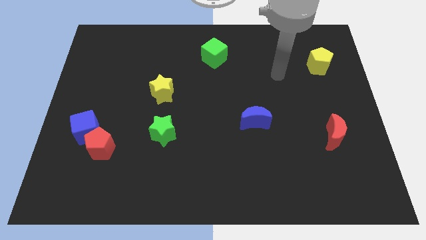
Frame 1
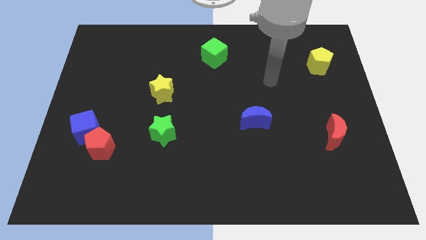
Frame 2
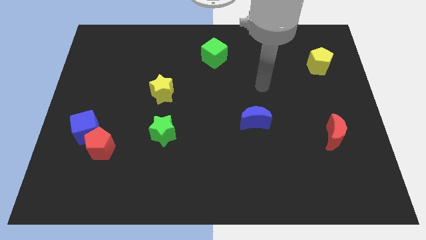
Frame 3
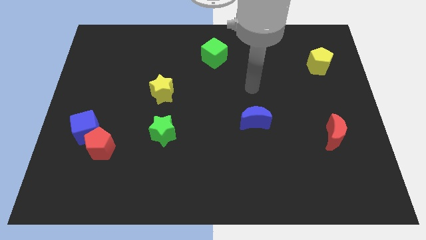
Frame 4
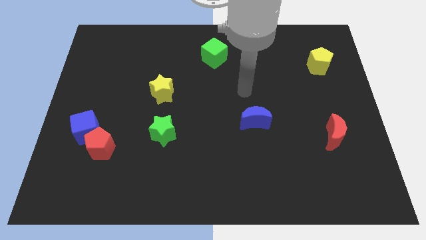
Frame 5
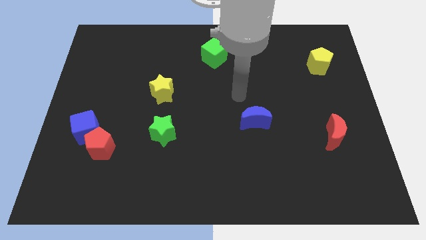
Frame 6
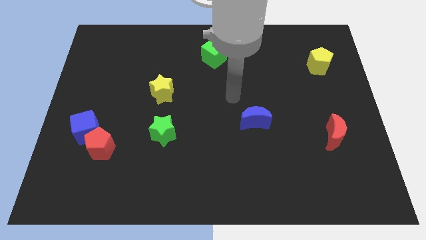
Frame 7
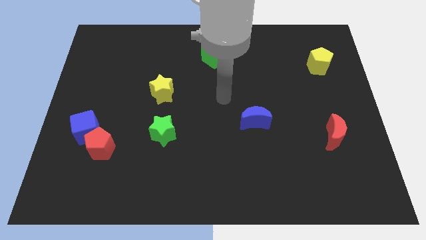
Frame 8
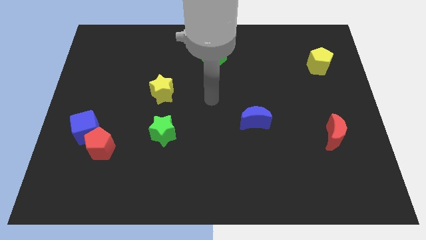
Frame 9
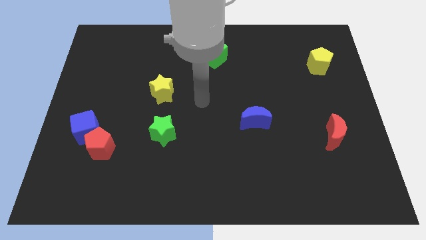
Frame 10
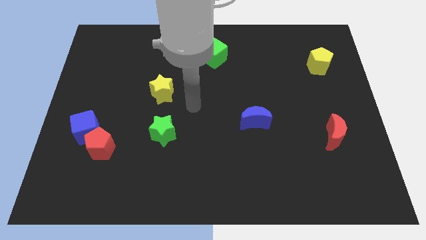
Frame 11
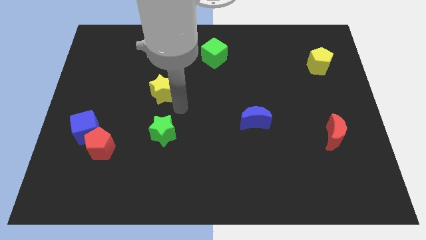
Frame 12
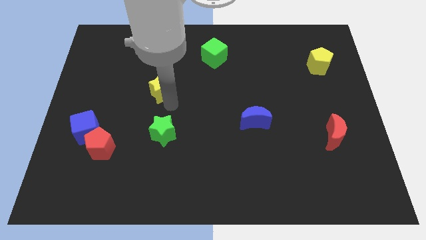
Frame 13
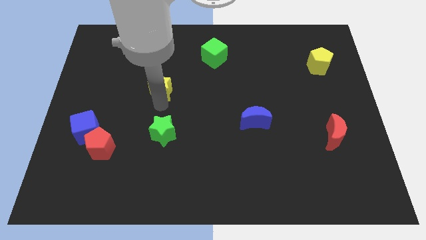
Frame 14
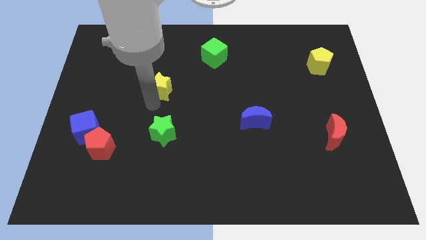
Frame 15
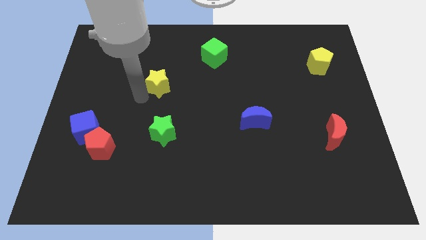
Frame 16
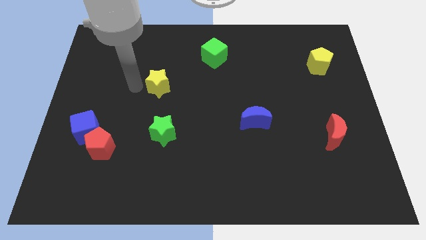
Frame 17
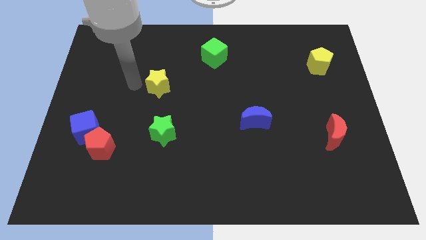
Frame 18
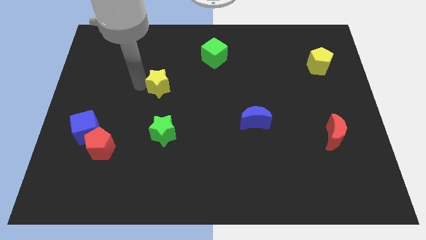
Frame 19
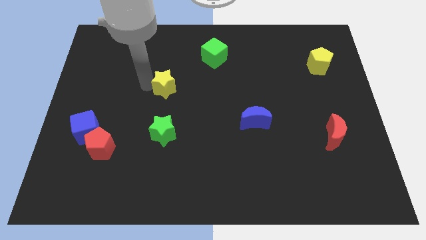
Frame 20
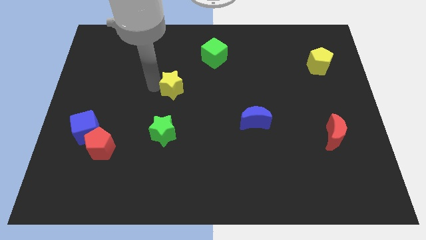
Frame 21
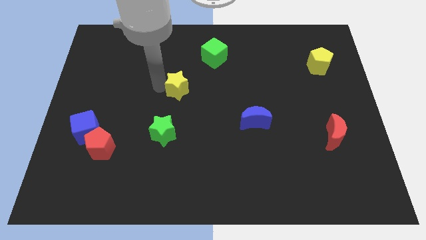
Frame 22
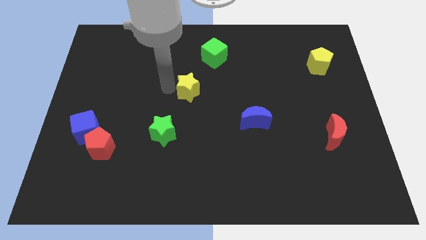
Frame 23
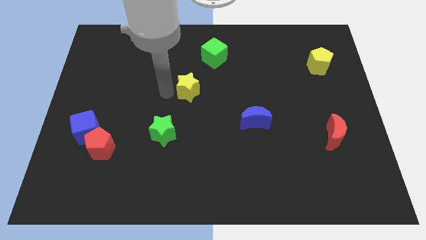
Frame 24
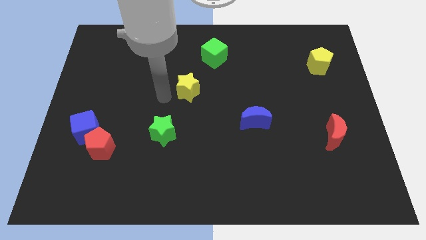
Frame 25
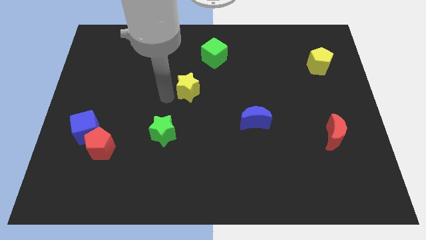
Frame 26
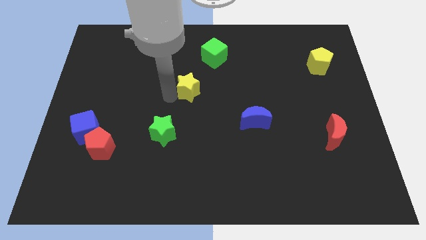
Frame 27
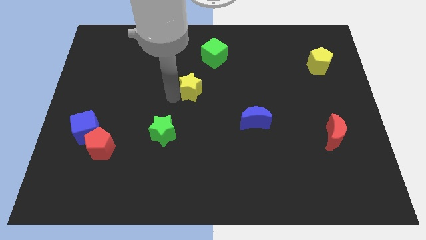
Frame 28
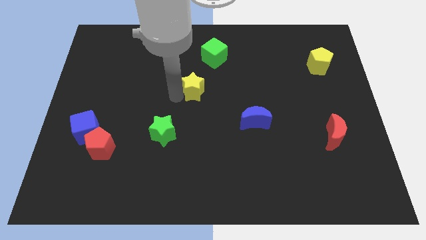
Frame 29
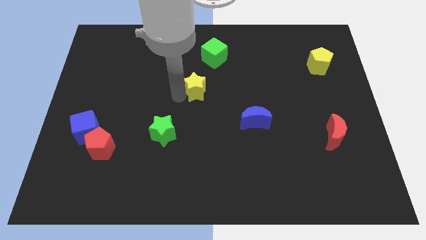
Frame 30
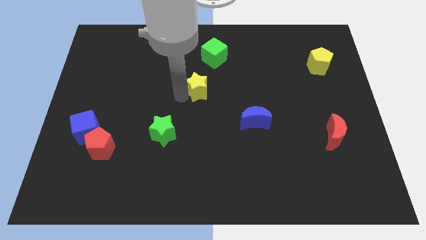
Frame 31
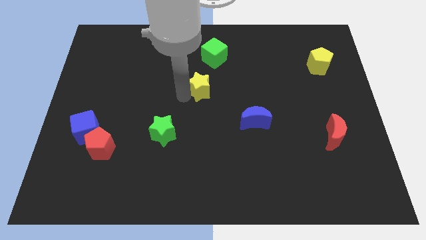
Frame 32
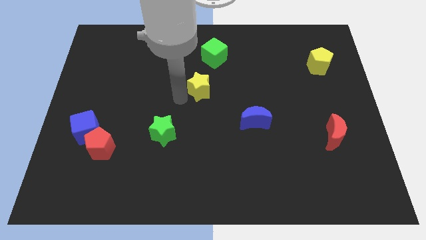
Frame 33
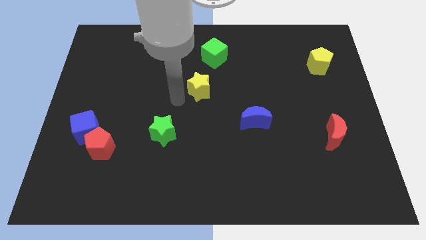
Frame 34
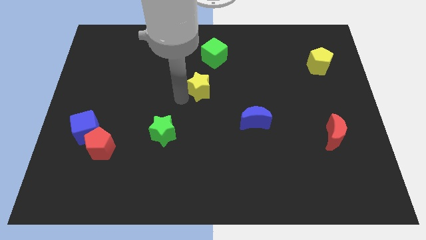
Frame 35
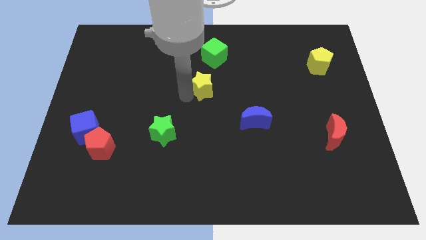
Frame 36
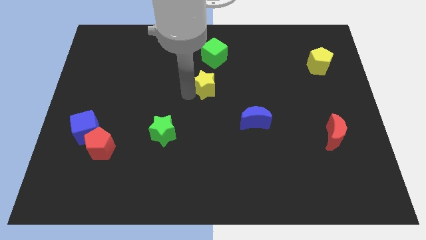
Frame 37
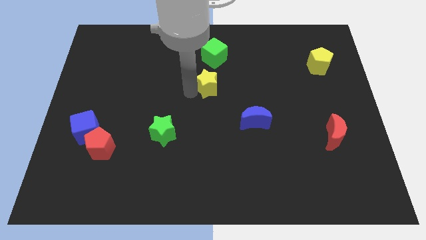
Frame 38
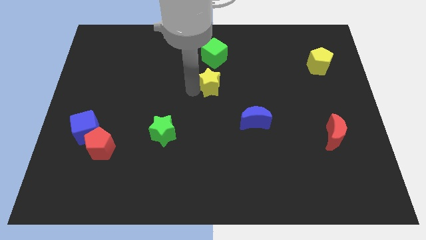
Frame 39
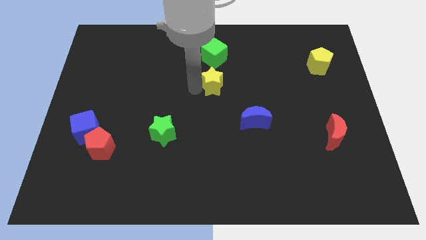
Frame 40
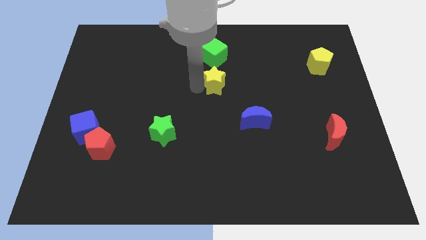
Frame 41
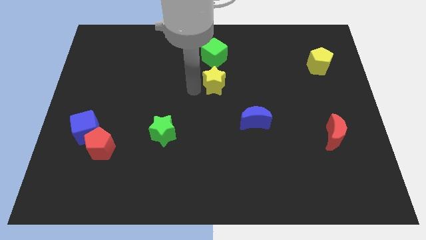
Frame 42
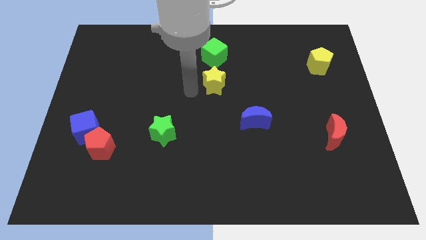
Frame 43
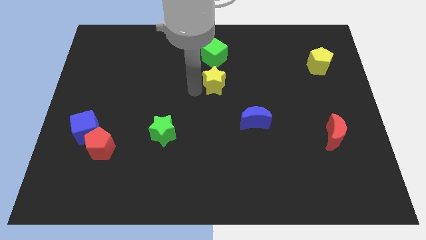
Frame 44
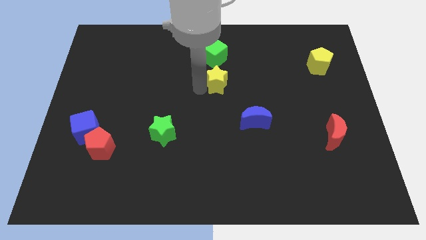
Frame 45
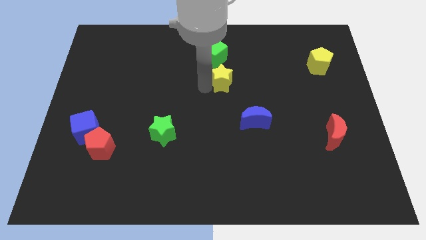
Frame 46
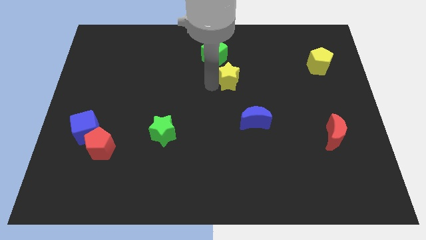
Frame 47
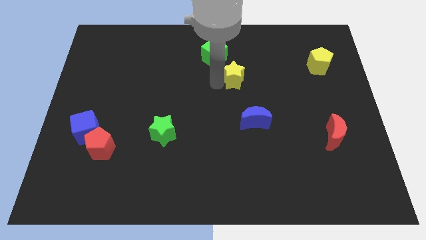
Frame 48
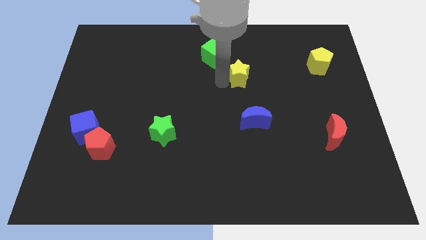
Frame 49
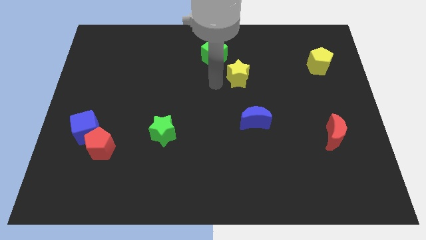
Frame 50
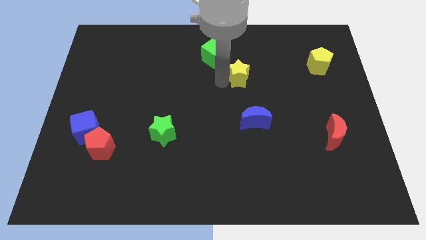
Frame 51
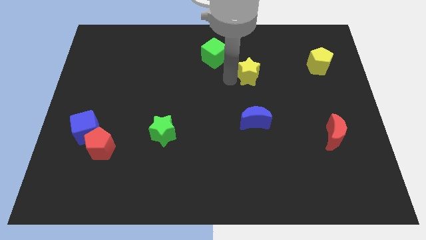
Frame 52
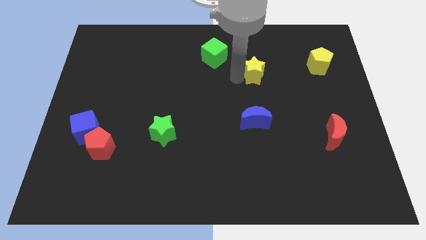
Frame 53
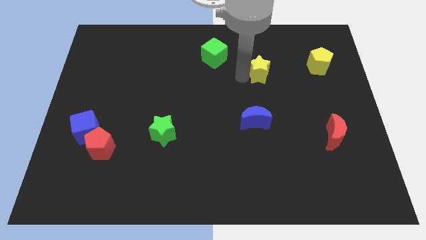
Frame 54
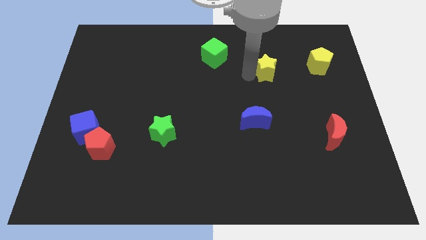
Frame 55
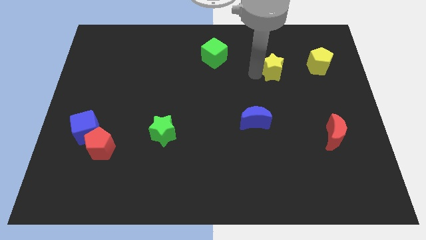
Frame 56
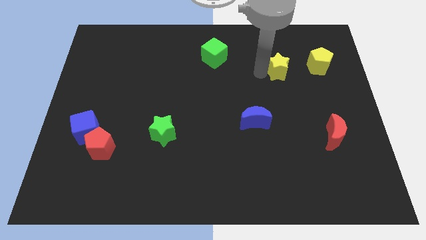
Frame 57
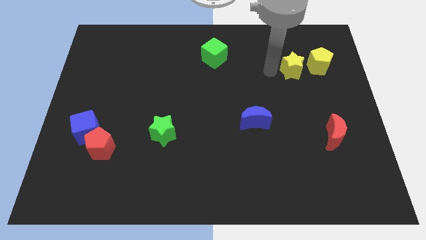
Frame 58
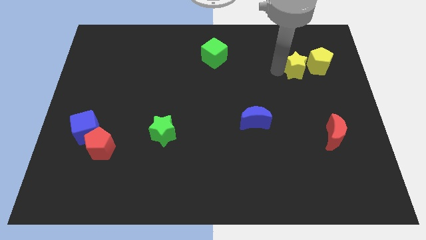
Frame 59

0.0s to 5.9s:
move the yellow star next to the yellow pentagon

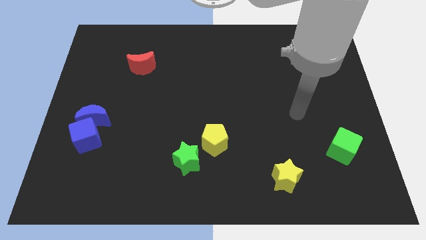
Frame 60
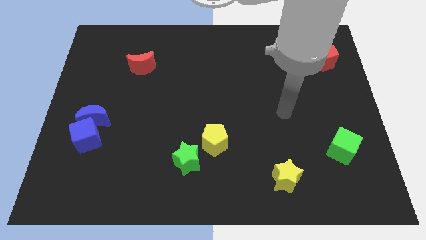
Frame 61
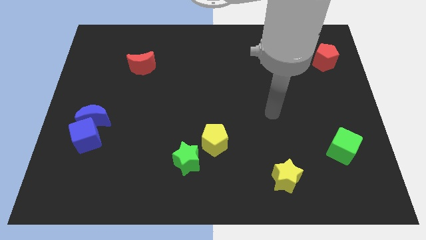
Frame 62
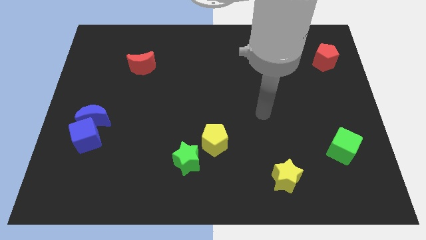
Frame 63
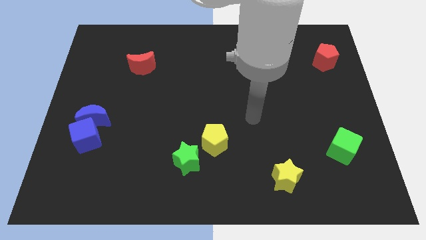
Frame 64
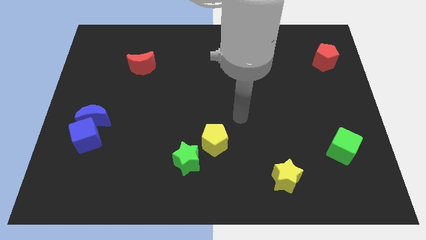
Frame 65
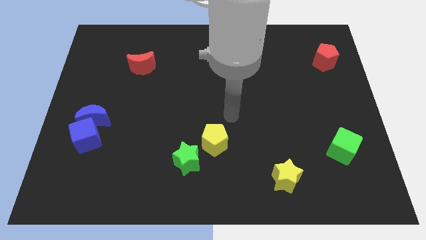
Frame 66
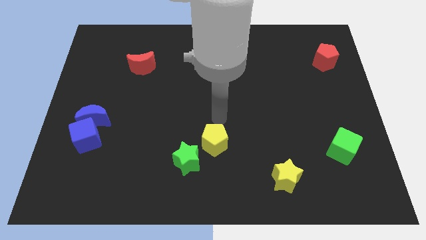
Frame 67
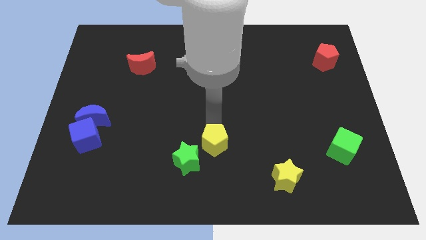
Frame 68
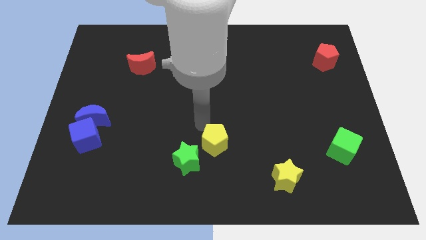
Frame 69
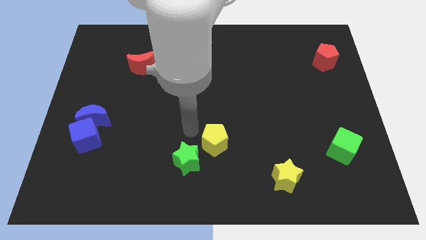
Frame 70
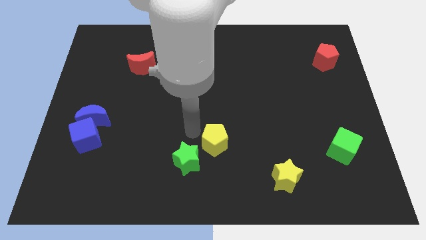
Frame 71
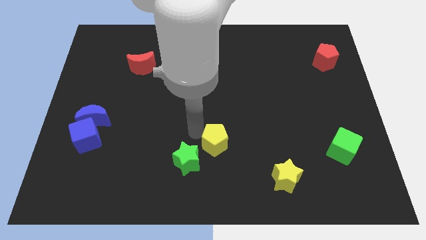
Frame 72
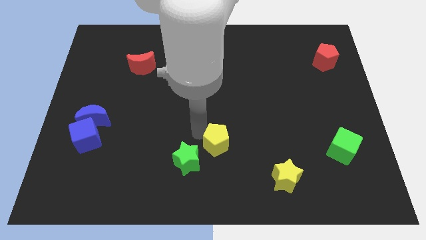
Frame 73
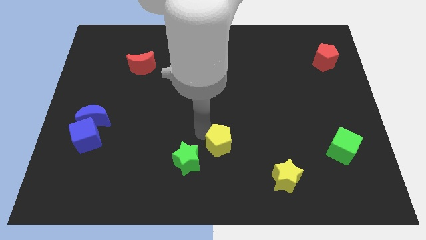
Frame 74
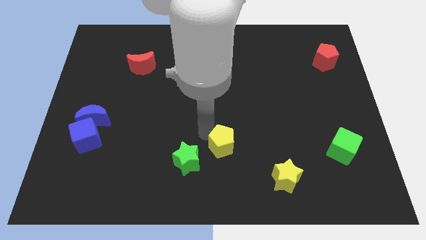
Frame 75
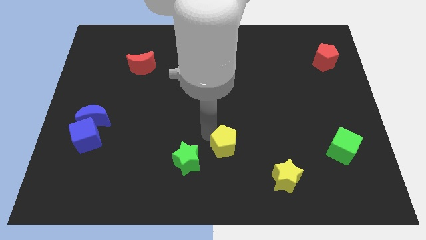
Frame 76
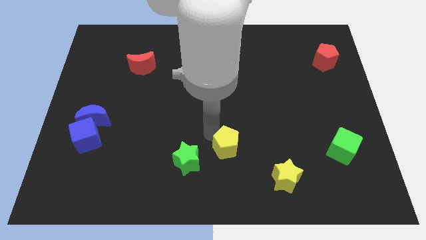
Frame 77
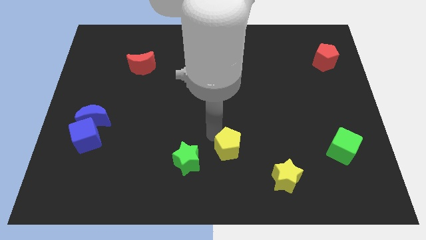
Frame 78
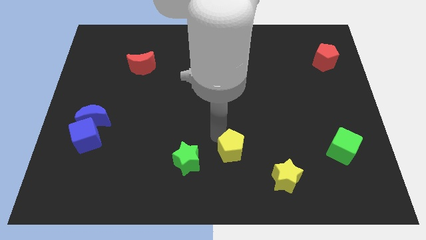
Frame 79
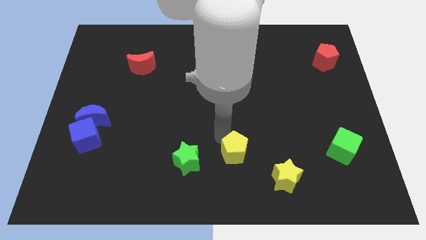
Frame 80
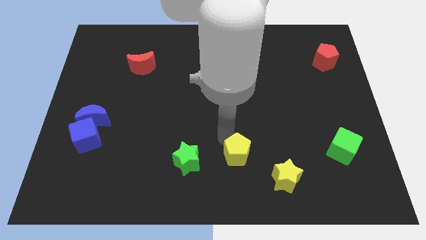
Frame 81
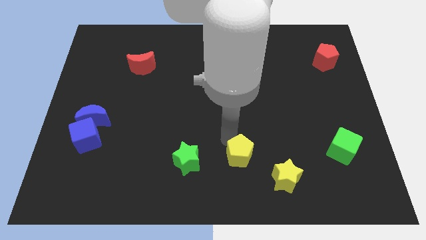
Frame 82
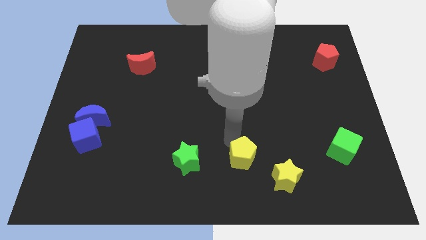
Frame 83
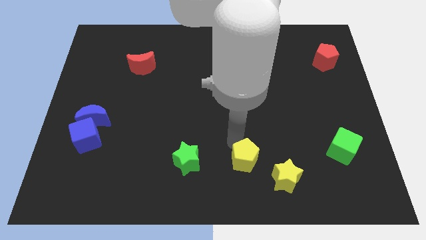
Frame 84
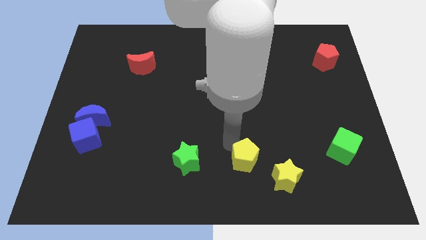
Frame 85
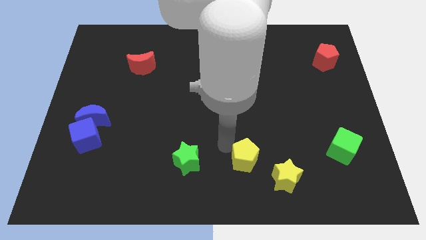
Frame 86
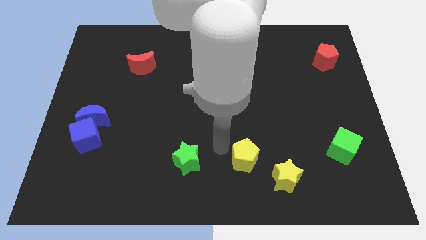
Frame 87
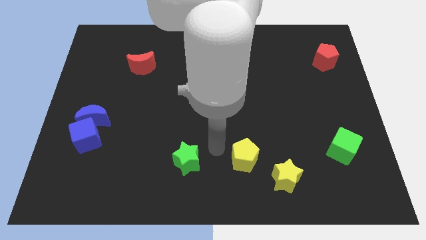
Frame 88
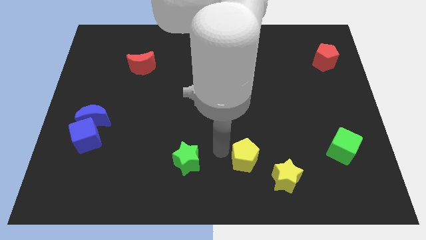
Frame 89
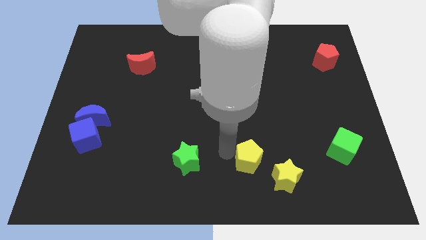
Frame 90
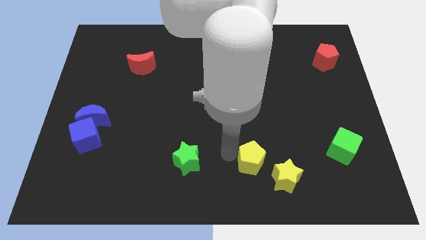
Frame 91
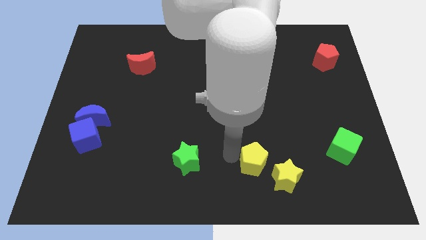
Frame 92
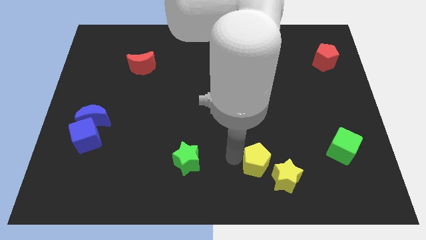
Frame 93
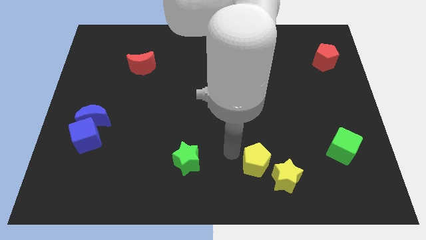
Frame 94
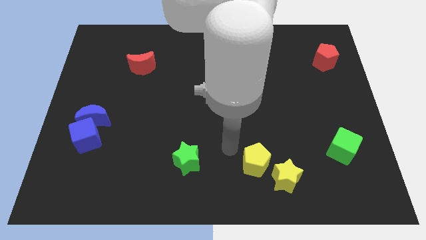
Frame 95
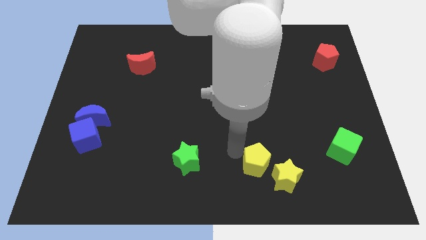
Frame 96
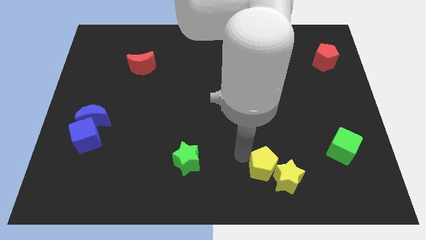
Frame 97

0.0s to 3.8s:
put the yellow pentagon towards the yellow star
